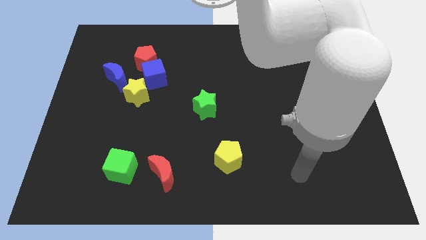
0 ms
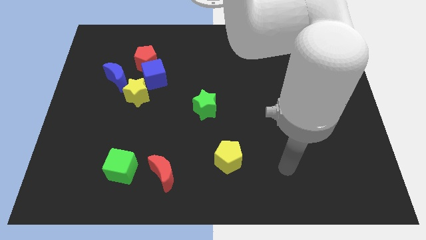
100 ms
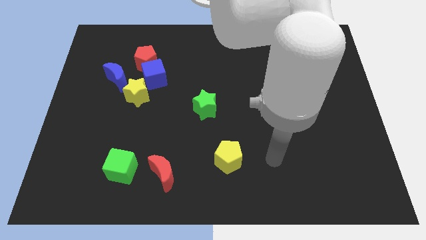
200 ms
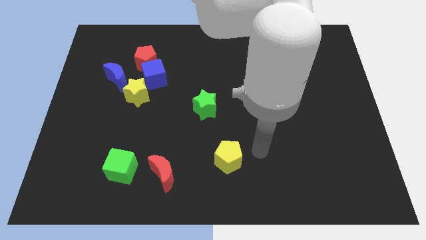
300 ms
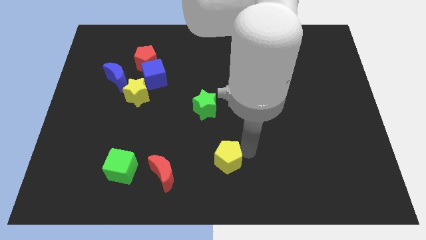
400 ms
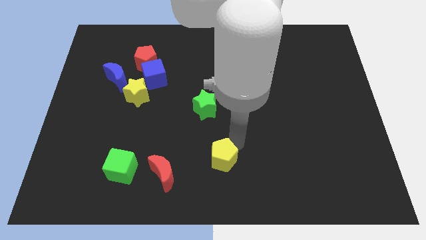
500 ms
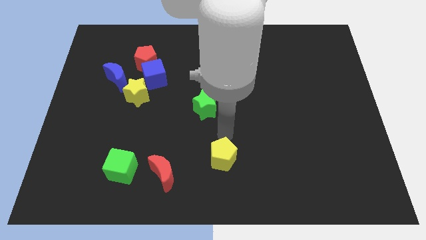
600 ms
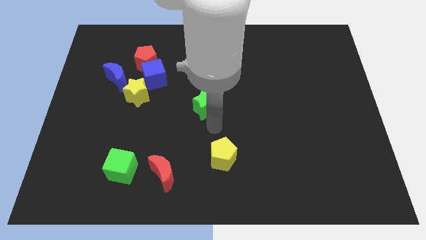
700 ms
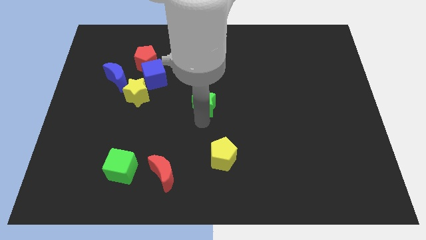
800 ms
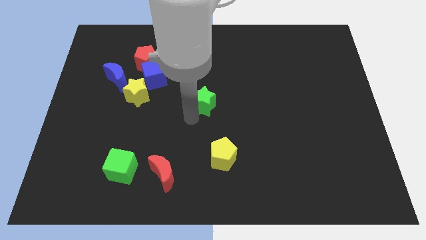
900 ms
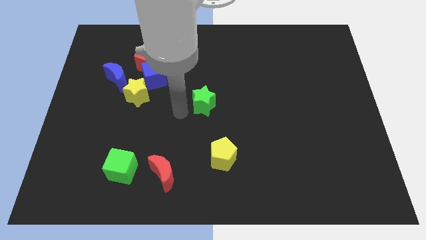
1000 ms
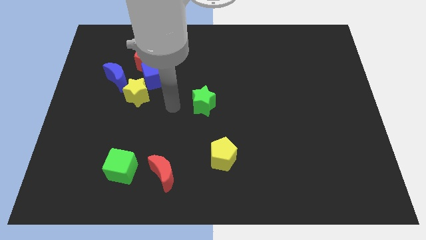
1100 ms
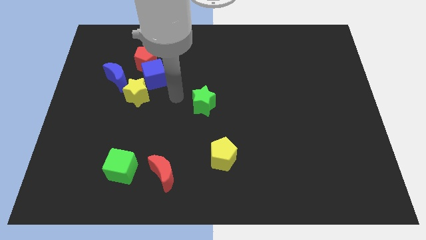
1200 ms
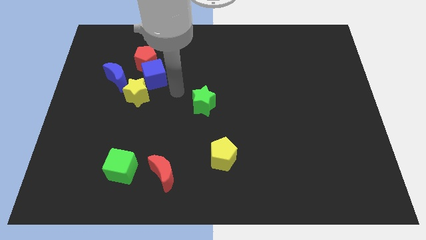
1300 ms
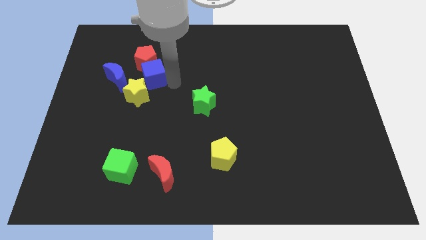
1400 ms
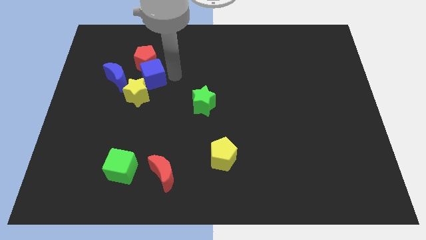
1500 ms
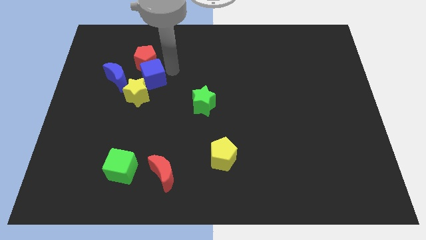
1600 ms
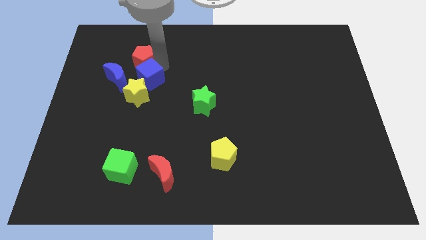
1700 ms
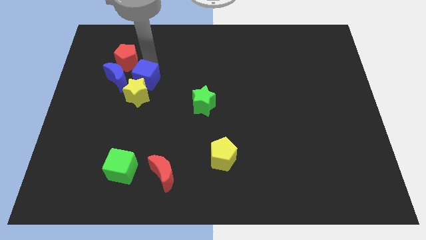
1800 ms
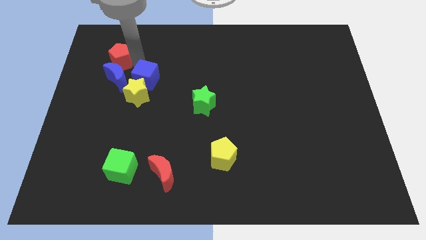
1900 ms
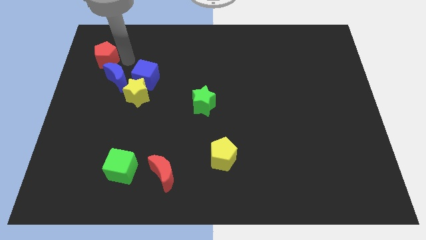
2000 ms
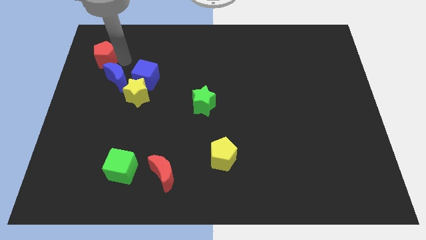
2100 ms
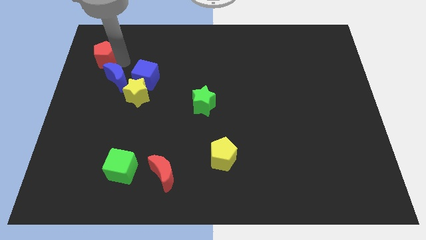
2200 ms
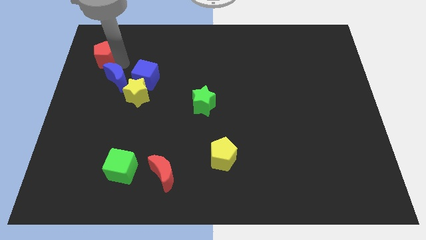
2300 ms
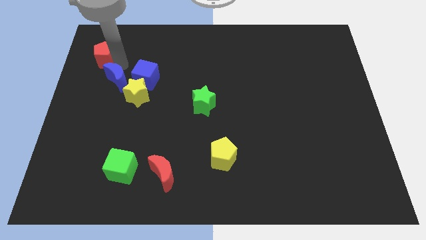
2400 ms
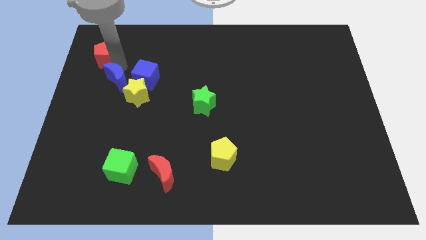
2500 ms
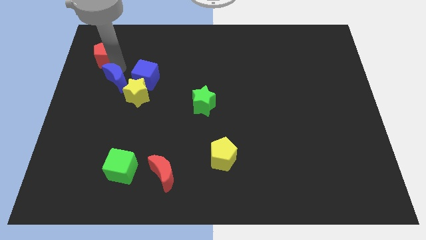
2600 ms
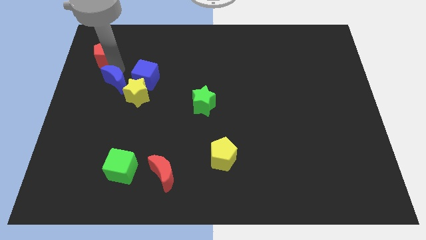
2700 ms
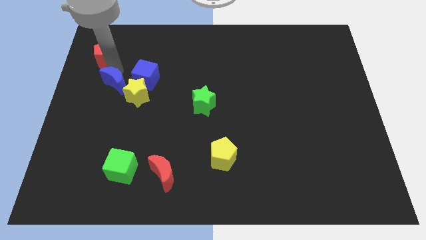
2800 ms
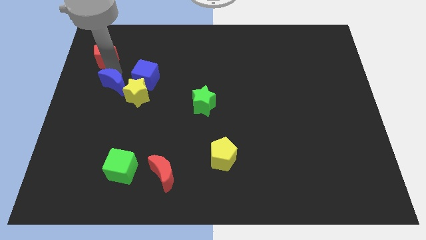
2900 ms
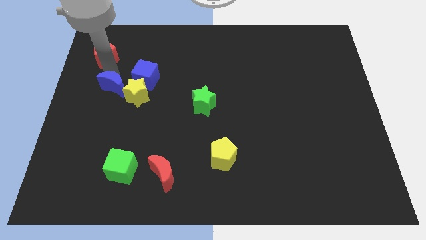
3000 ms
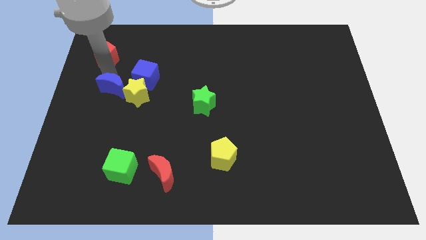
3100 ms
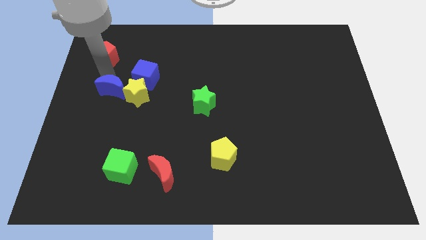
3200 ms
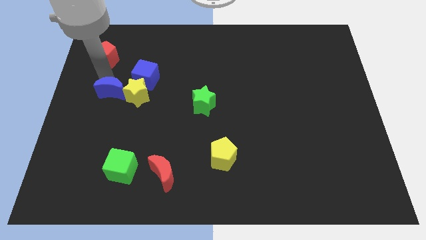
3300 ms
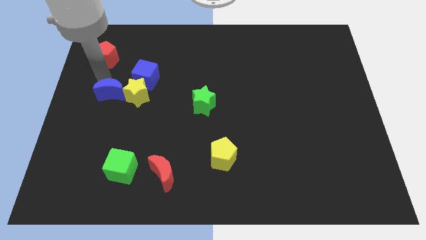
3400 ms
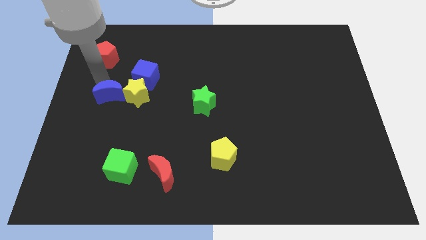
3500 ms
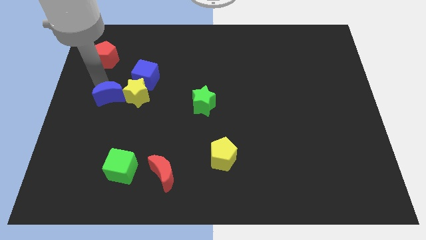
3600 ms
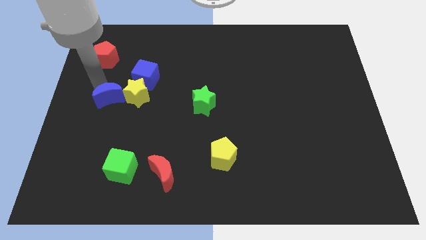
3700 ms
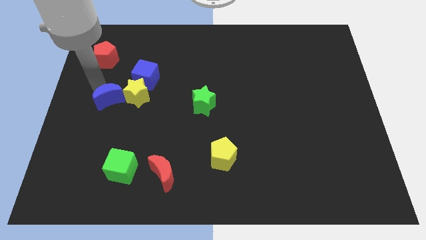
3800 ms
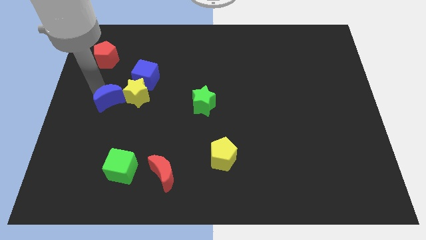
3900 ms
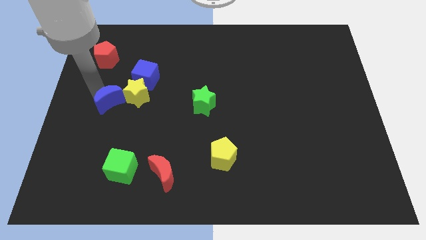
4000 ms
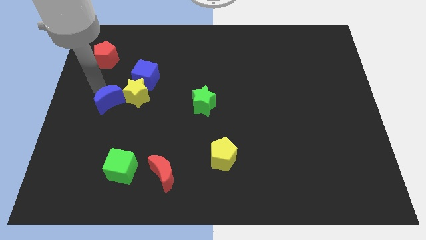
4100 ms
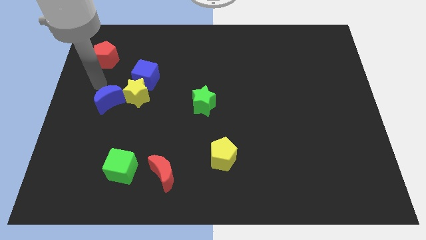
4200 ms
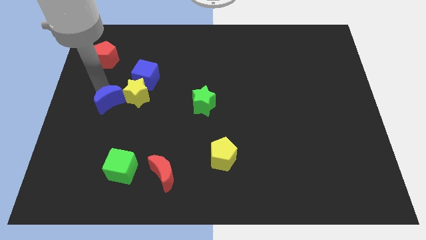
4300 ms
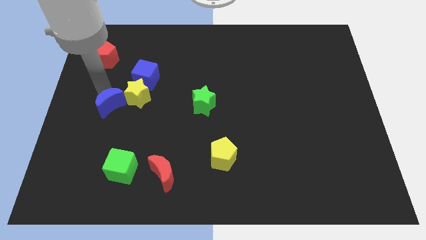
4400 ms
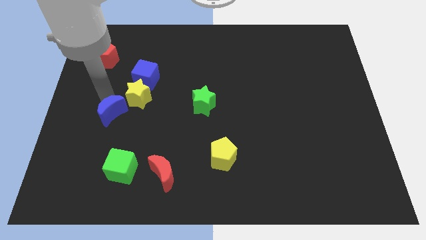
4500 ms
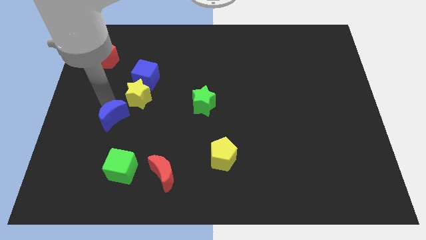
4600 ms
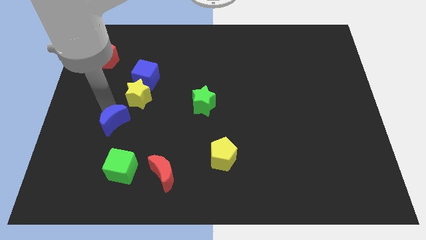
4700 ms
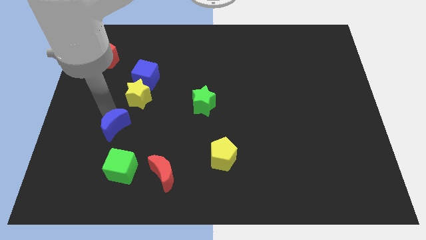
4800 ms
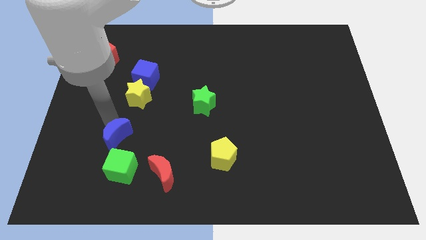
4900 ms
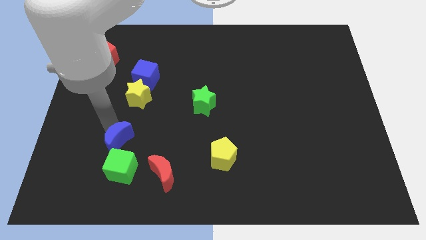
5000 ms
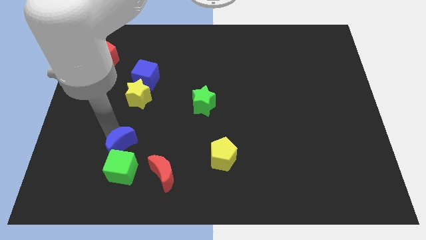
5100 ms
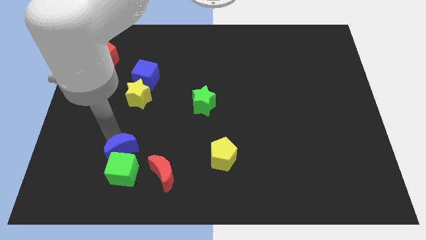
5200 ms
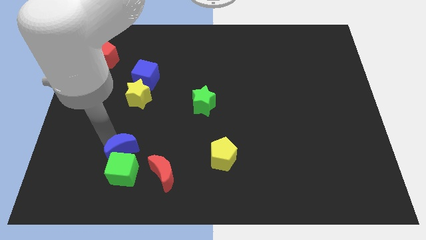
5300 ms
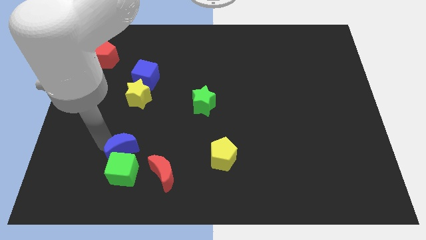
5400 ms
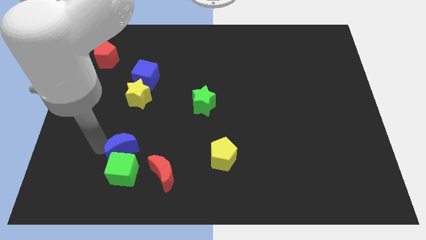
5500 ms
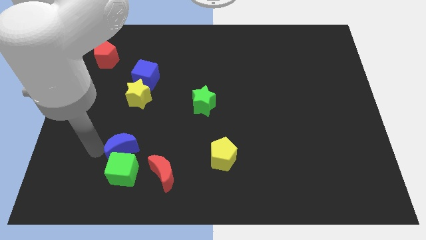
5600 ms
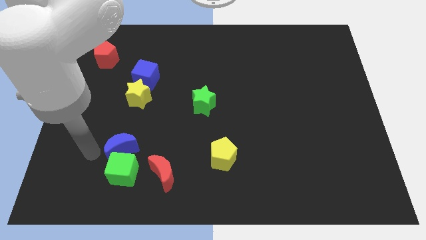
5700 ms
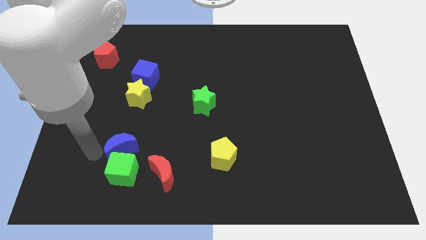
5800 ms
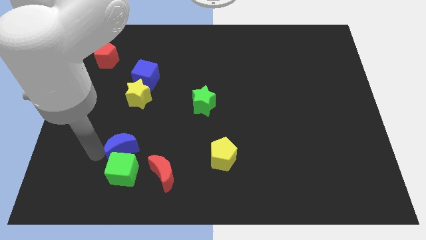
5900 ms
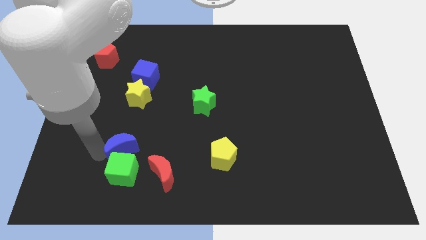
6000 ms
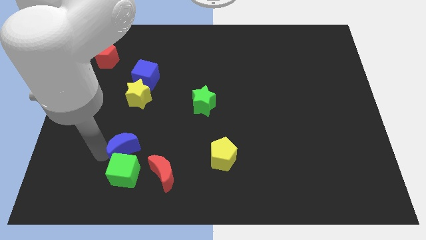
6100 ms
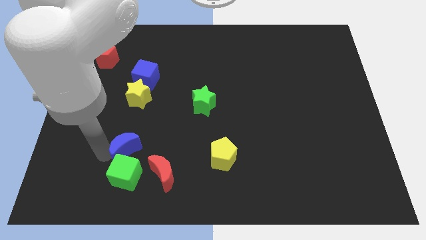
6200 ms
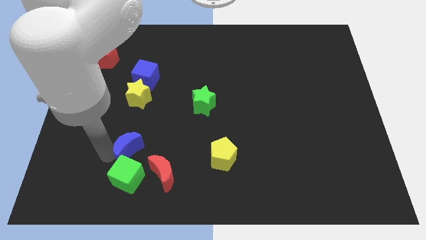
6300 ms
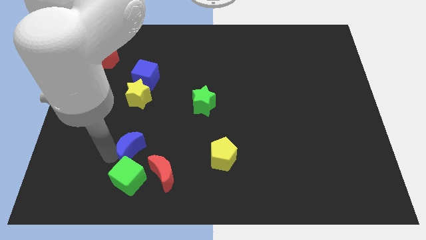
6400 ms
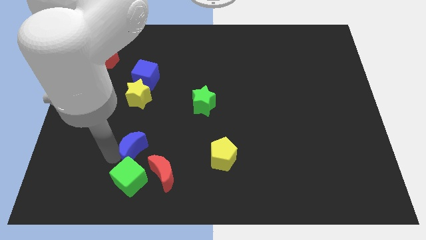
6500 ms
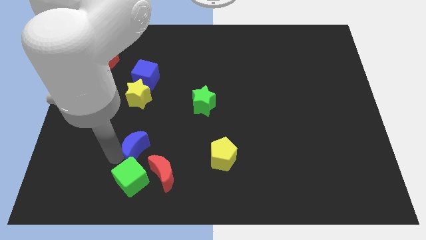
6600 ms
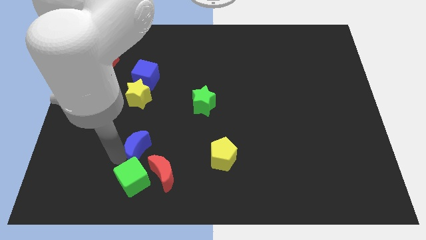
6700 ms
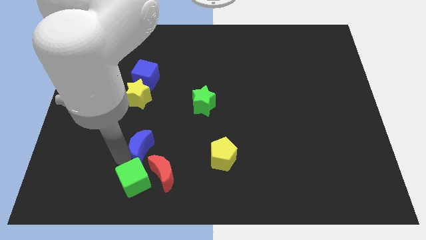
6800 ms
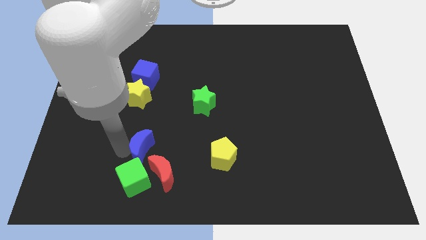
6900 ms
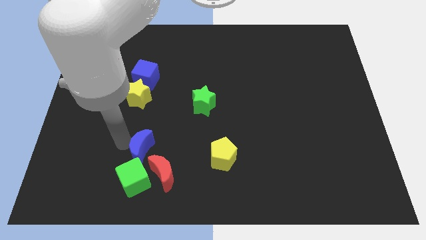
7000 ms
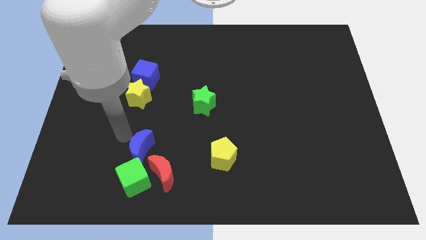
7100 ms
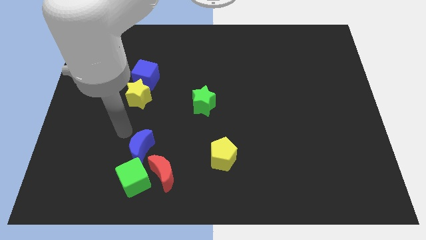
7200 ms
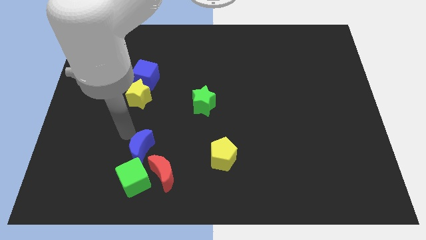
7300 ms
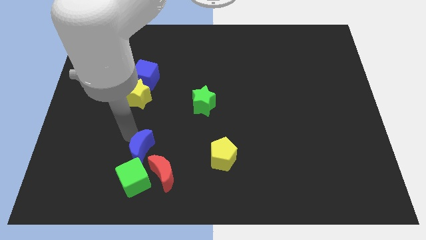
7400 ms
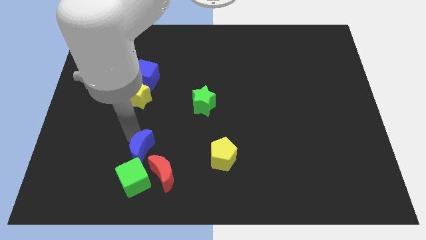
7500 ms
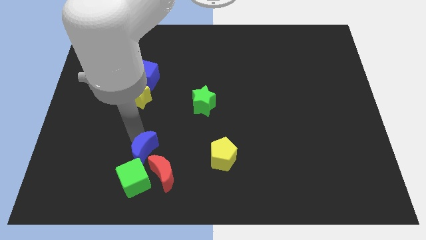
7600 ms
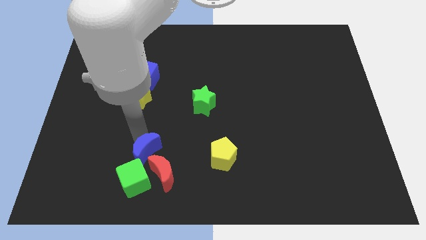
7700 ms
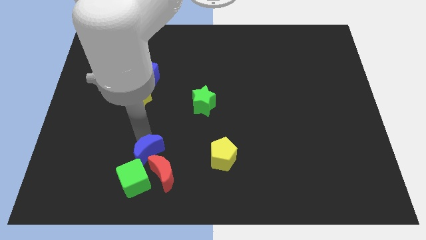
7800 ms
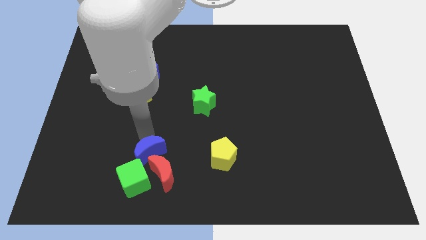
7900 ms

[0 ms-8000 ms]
push the blue moon to the red moon
